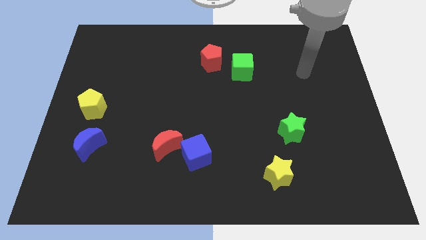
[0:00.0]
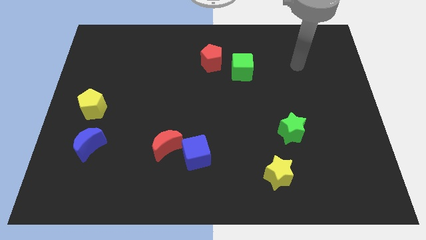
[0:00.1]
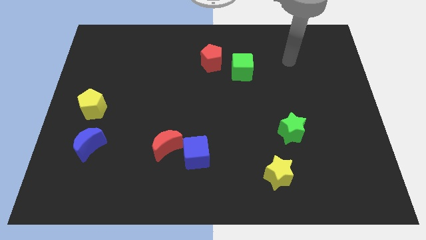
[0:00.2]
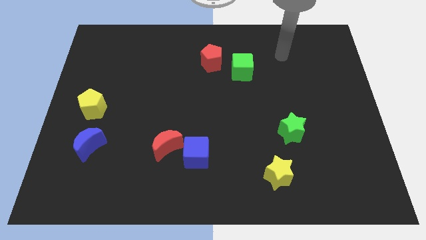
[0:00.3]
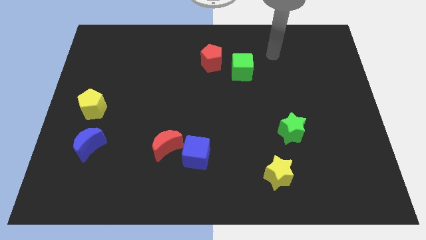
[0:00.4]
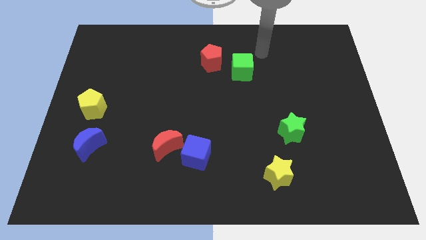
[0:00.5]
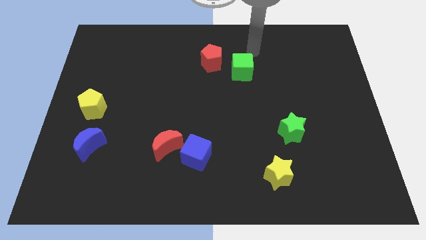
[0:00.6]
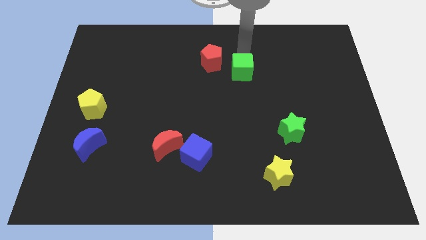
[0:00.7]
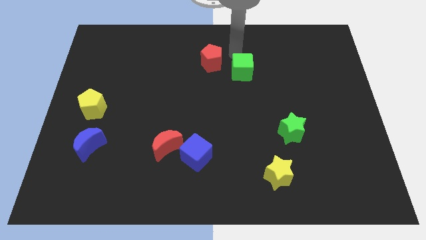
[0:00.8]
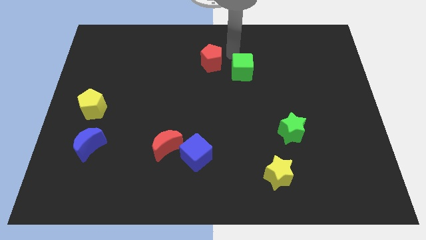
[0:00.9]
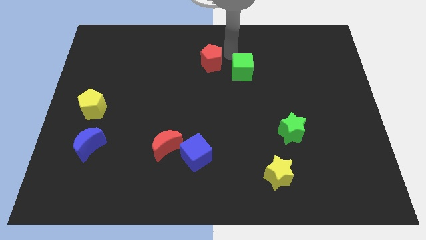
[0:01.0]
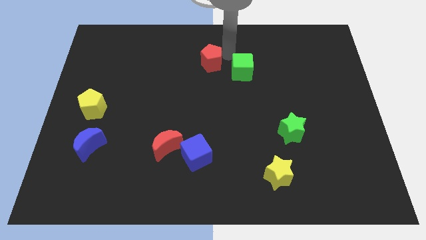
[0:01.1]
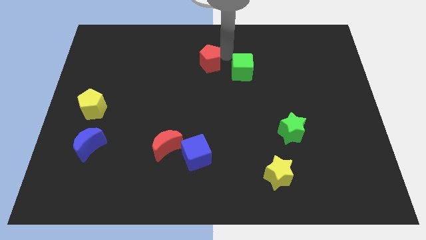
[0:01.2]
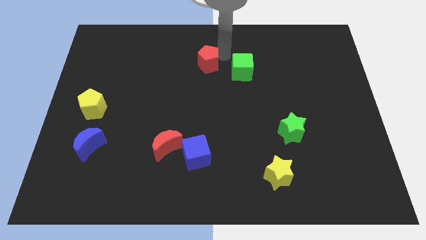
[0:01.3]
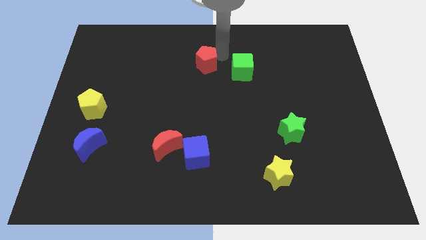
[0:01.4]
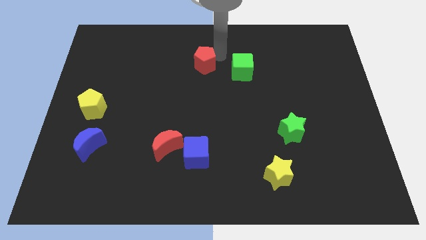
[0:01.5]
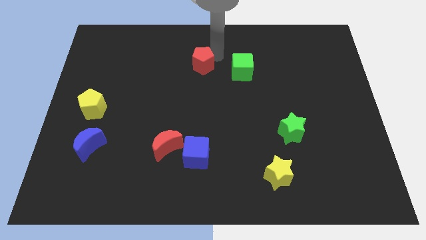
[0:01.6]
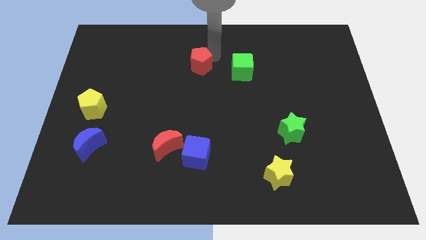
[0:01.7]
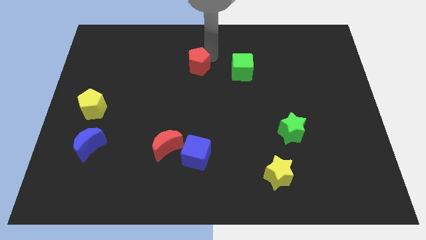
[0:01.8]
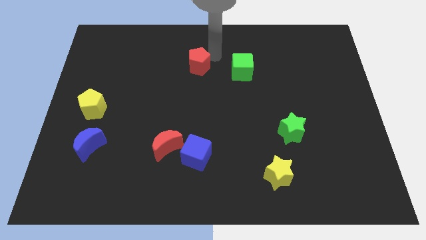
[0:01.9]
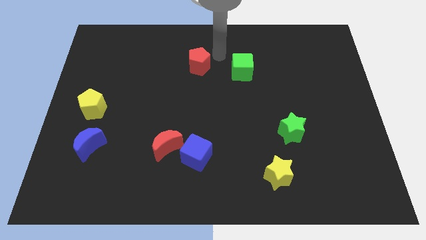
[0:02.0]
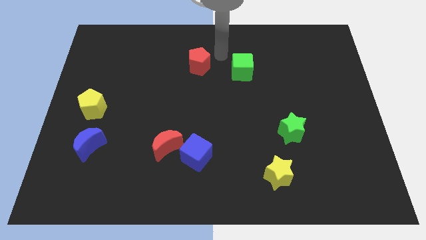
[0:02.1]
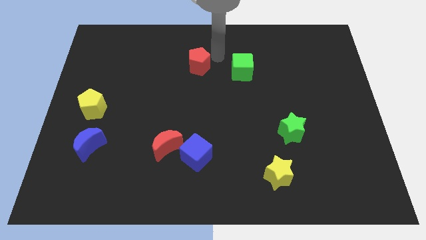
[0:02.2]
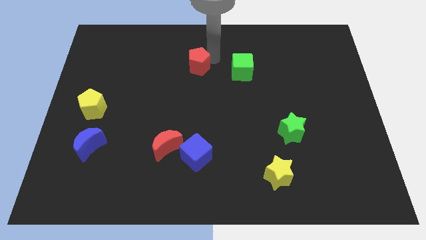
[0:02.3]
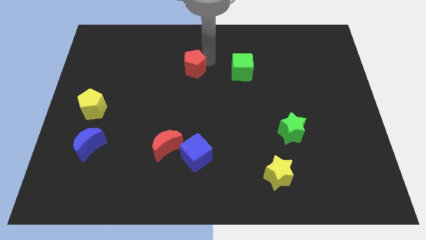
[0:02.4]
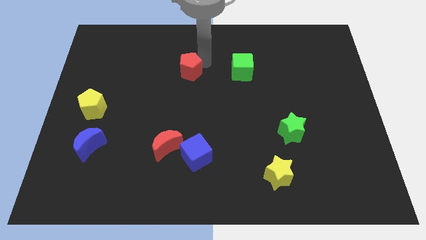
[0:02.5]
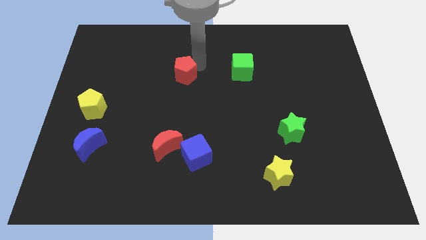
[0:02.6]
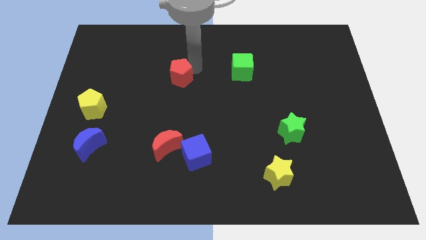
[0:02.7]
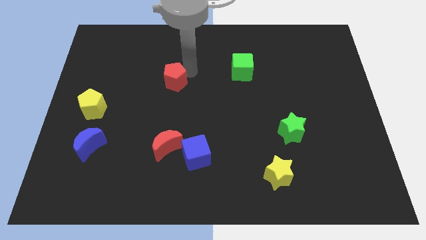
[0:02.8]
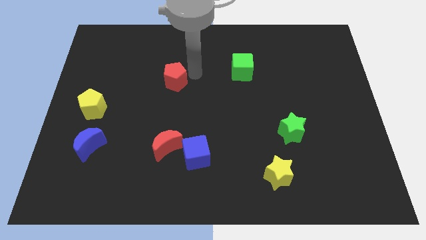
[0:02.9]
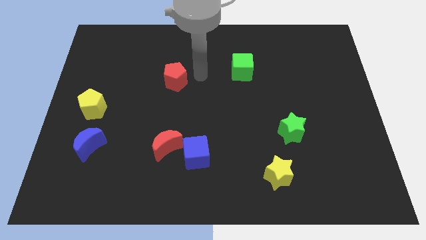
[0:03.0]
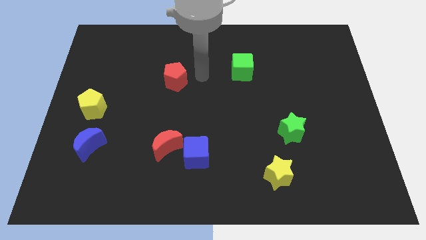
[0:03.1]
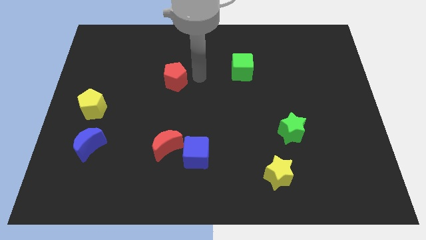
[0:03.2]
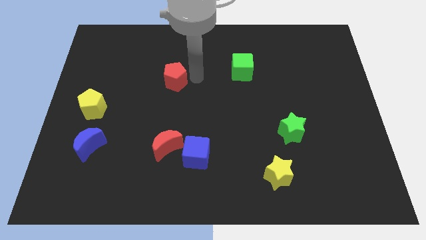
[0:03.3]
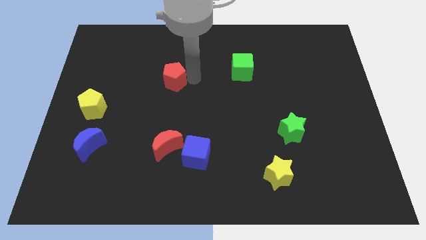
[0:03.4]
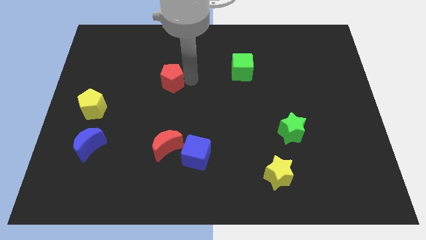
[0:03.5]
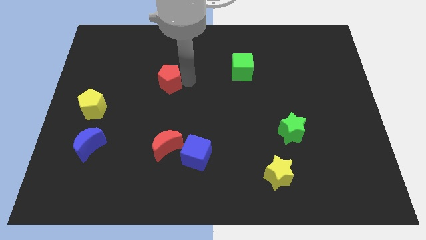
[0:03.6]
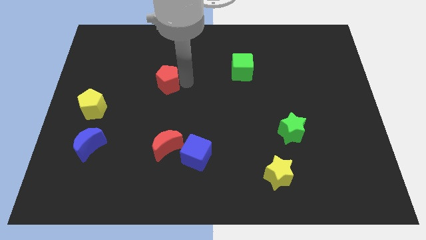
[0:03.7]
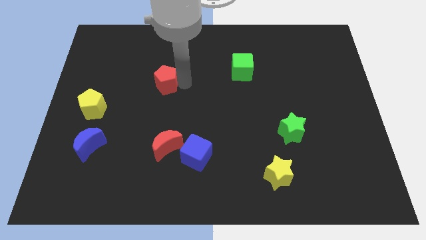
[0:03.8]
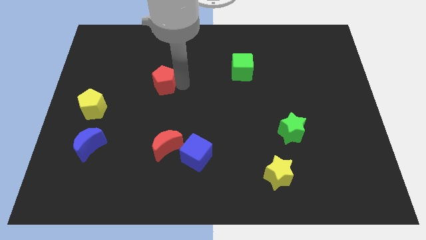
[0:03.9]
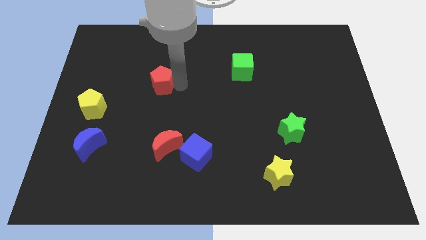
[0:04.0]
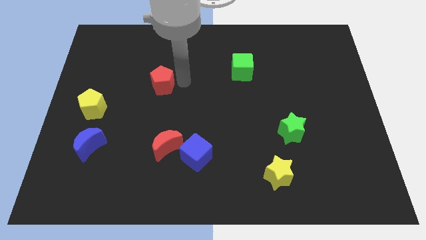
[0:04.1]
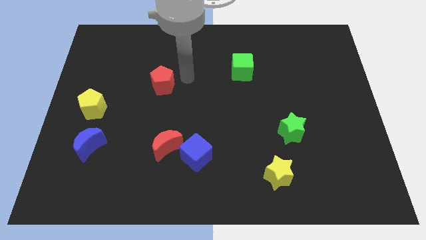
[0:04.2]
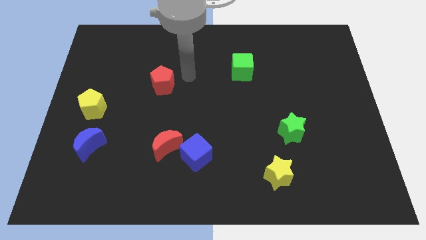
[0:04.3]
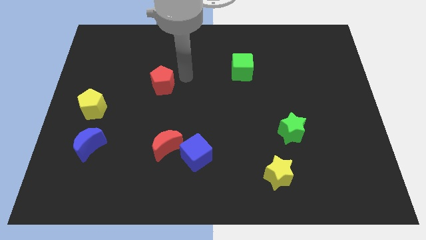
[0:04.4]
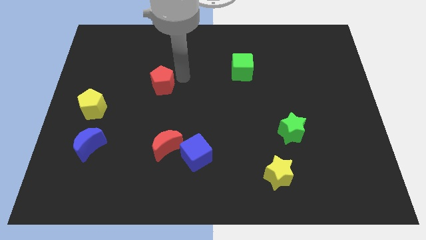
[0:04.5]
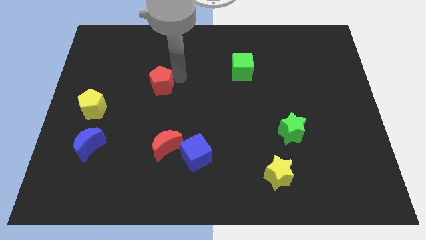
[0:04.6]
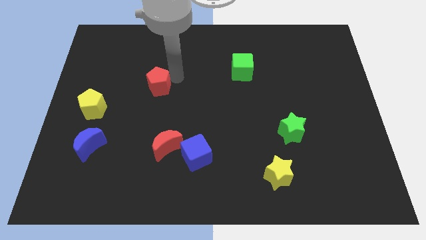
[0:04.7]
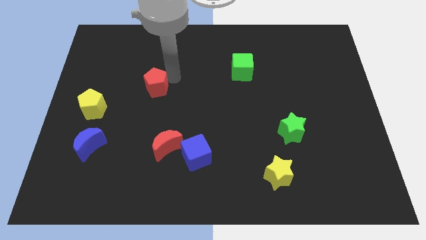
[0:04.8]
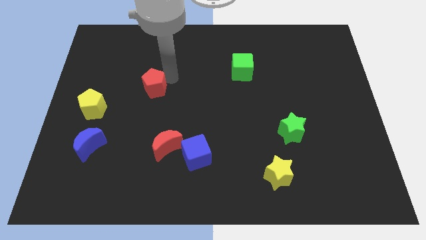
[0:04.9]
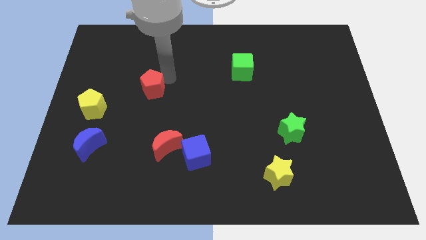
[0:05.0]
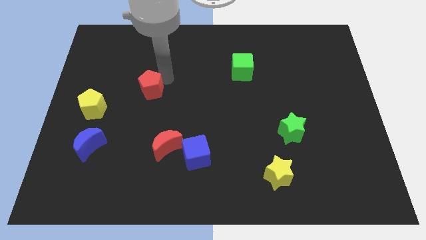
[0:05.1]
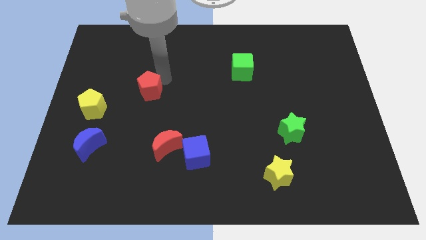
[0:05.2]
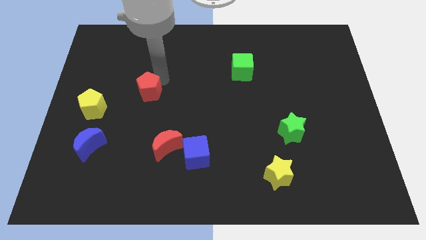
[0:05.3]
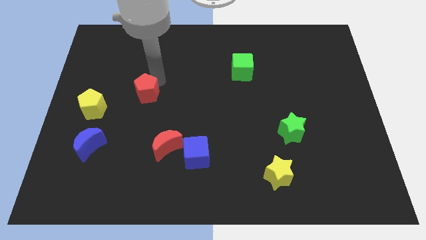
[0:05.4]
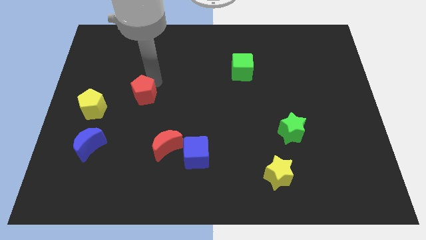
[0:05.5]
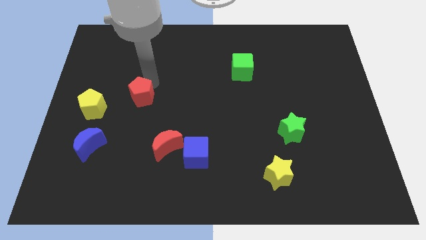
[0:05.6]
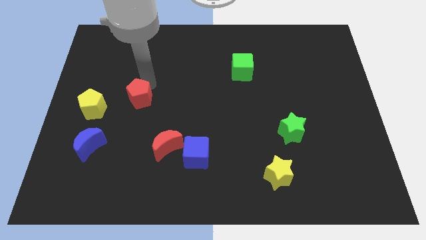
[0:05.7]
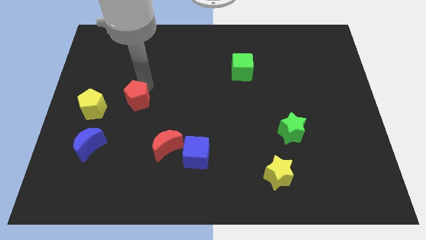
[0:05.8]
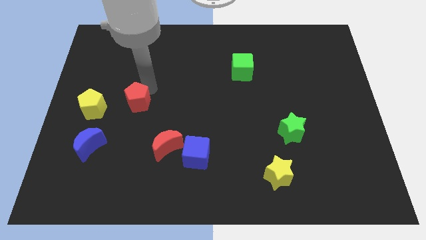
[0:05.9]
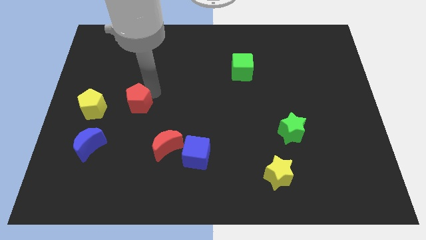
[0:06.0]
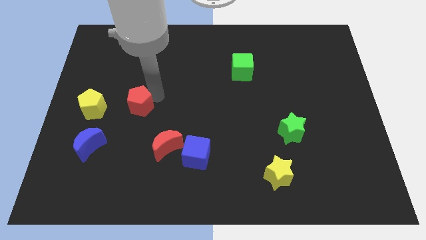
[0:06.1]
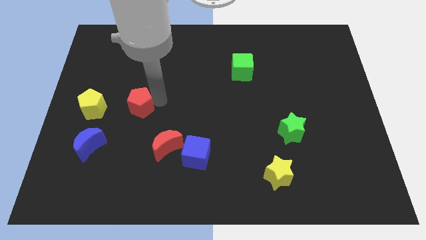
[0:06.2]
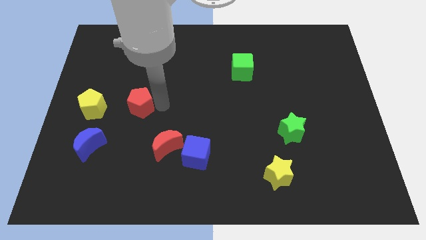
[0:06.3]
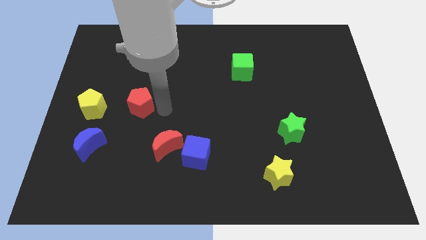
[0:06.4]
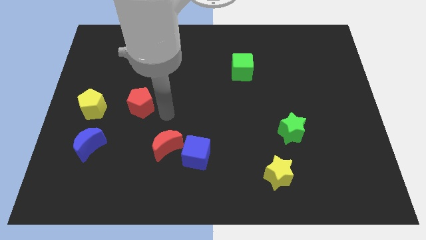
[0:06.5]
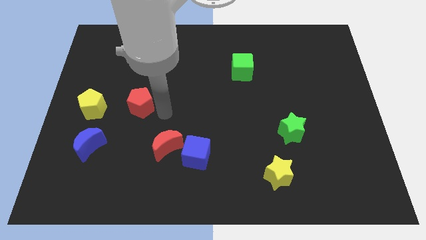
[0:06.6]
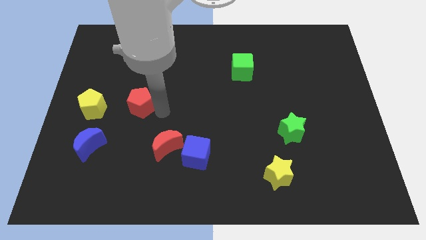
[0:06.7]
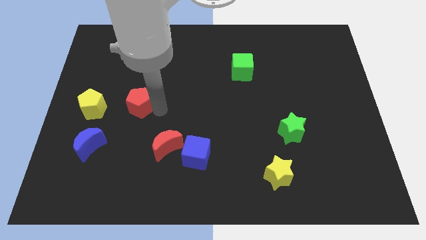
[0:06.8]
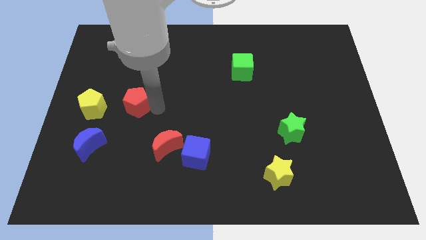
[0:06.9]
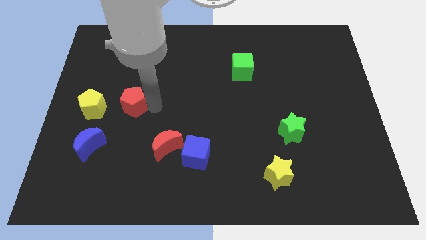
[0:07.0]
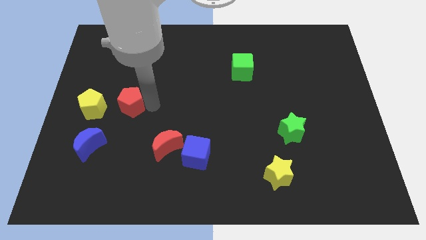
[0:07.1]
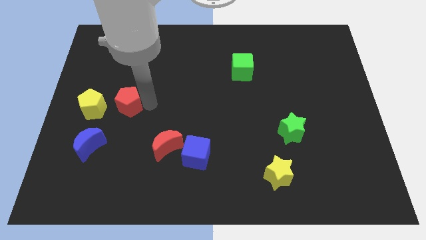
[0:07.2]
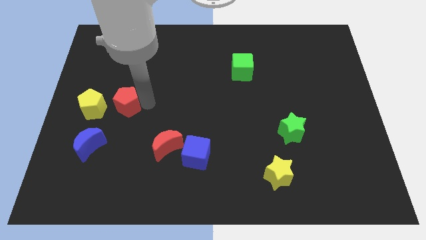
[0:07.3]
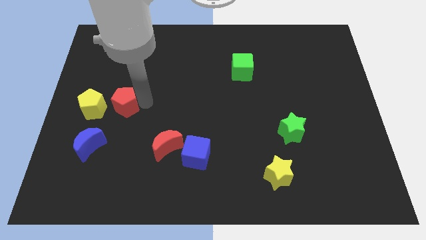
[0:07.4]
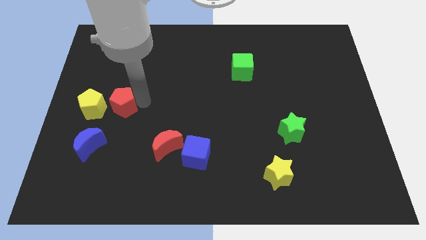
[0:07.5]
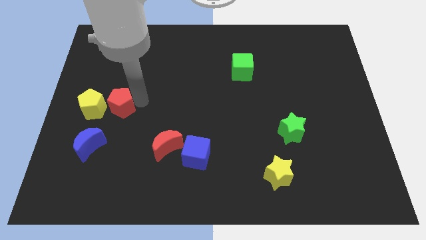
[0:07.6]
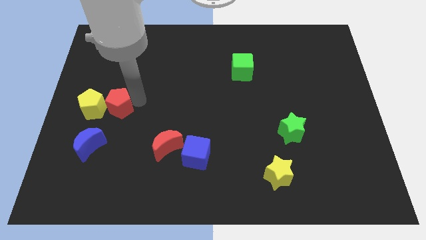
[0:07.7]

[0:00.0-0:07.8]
move the red pentagon close to the yellow pentagon
